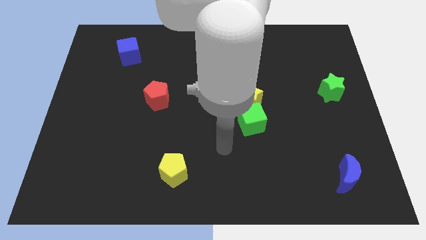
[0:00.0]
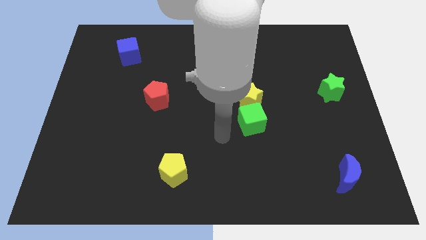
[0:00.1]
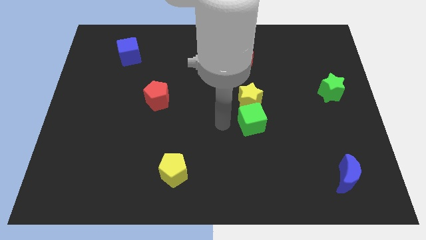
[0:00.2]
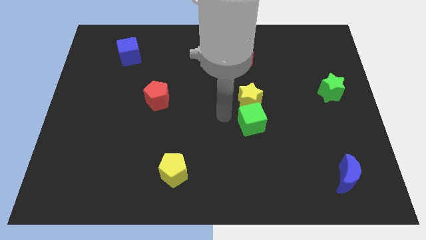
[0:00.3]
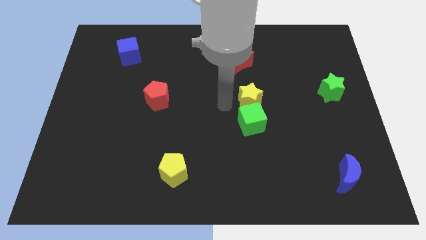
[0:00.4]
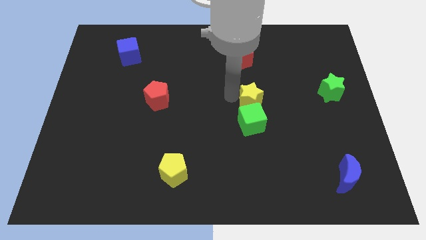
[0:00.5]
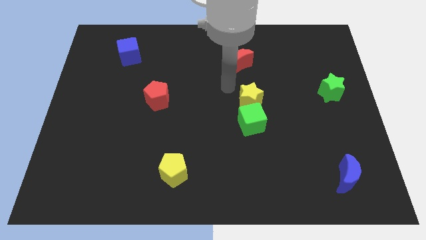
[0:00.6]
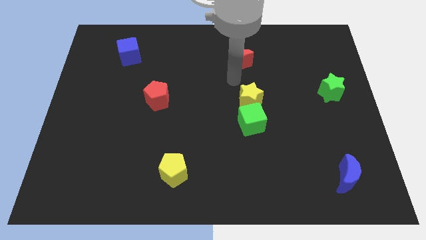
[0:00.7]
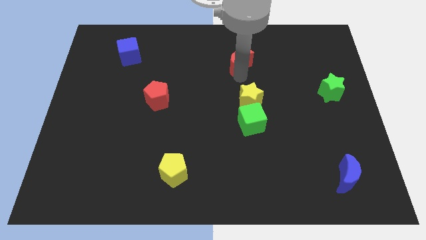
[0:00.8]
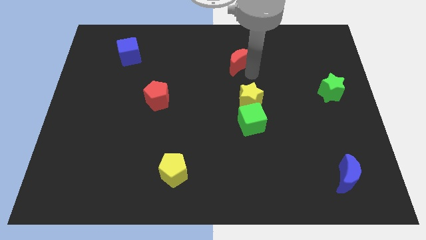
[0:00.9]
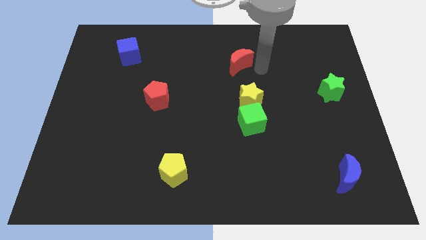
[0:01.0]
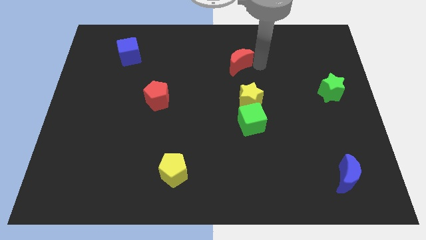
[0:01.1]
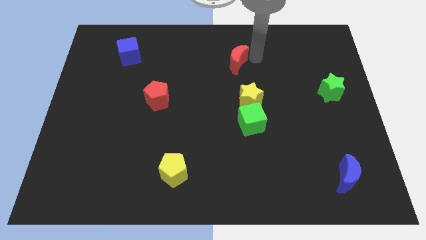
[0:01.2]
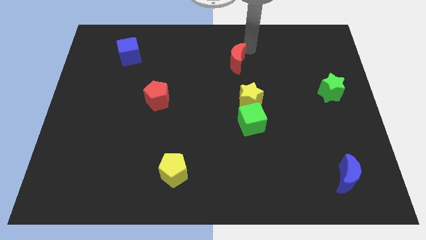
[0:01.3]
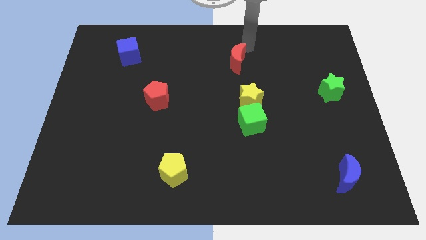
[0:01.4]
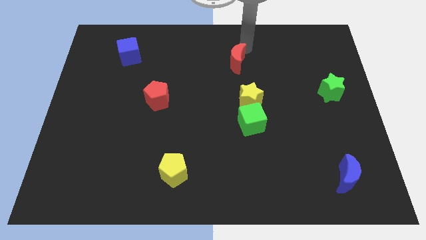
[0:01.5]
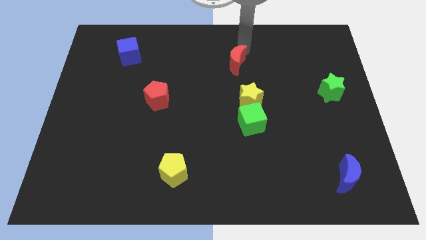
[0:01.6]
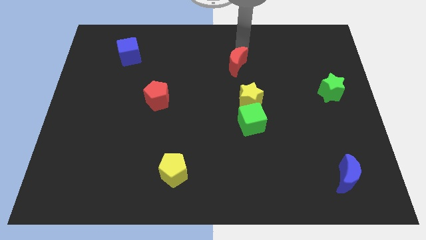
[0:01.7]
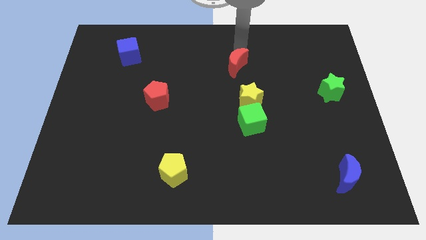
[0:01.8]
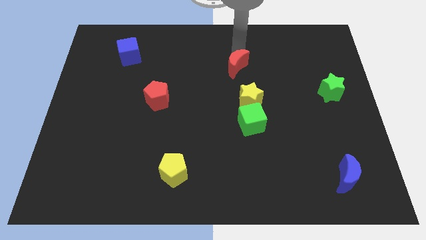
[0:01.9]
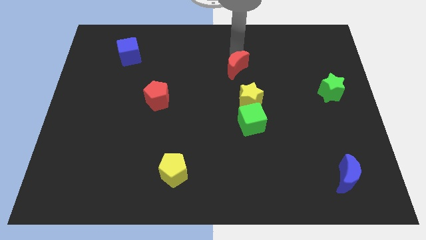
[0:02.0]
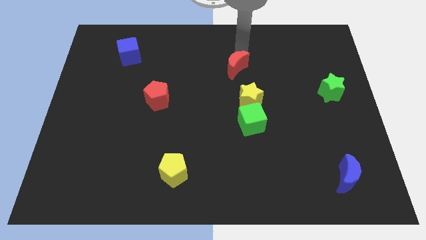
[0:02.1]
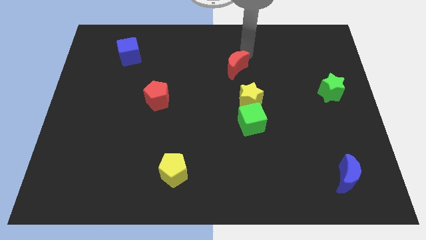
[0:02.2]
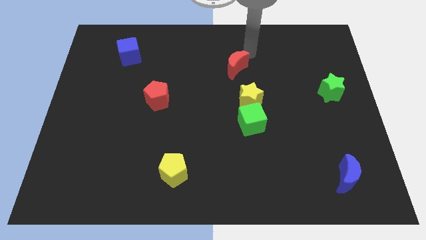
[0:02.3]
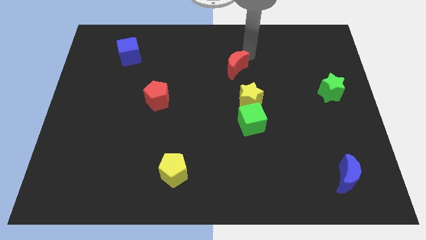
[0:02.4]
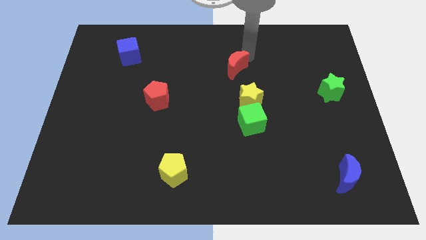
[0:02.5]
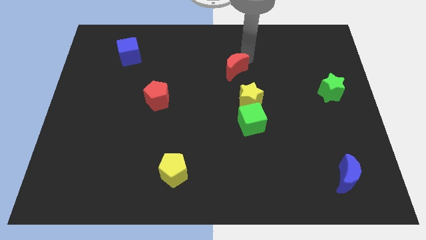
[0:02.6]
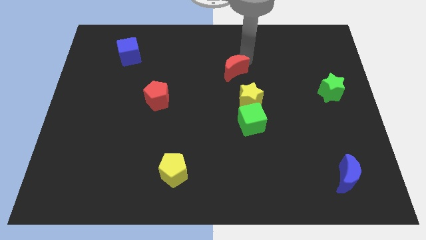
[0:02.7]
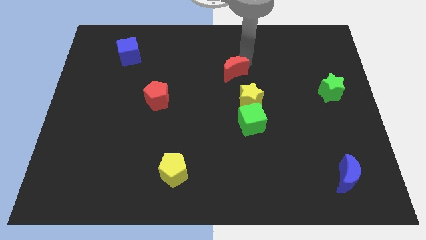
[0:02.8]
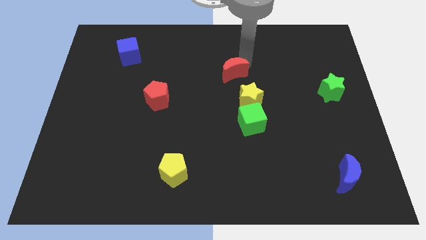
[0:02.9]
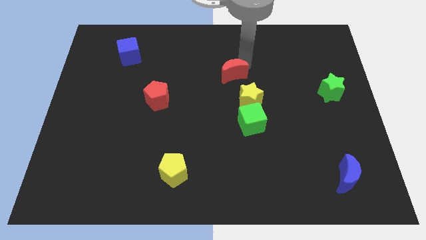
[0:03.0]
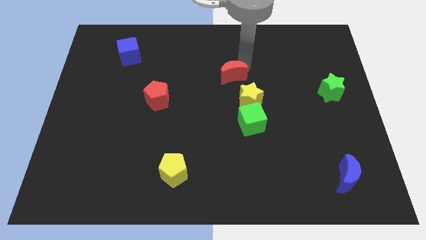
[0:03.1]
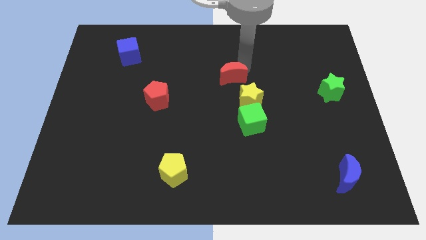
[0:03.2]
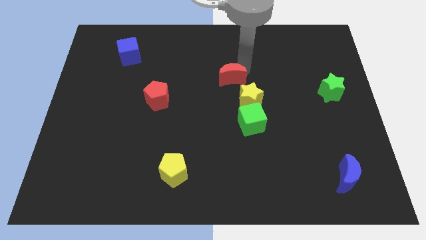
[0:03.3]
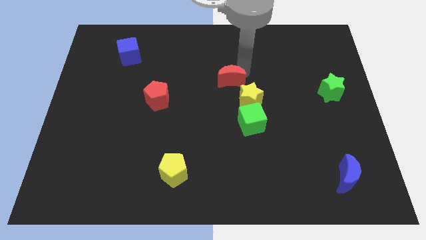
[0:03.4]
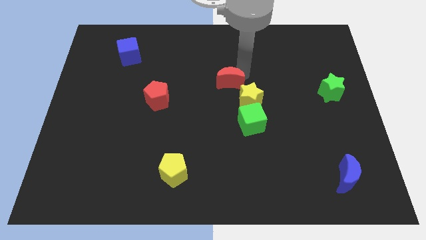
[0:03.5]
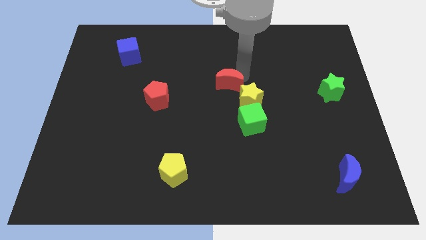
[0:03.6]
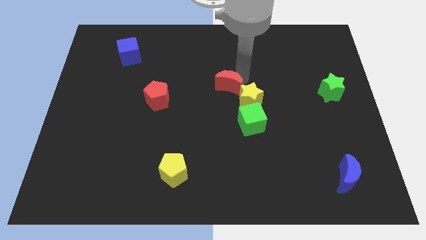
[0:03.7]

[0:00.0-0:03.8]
slightly push the red moon down and left diagonally

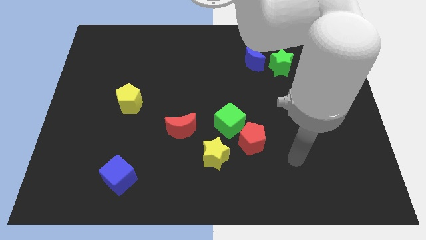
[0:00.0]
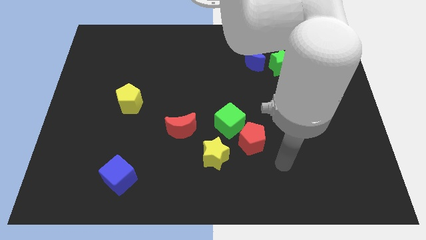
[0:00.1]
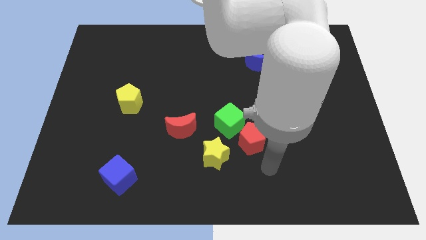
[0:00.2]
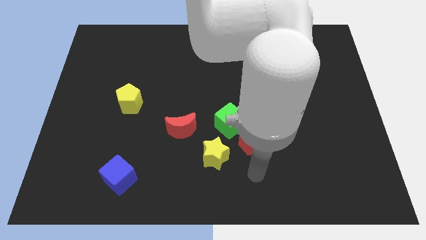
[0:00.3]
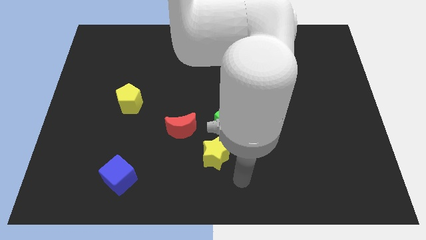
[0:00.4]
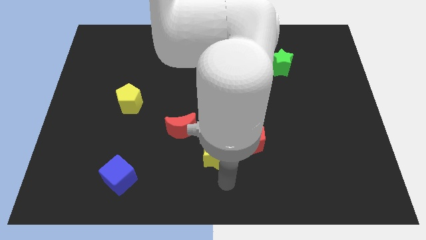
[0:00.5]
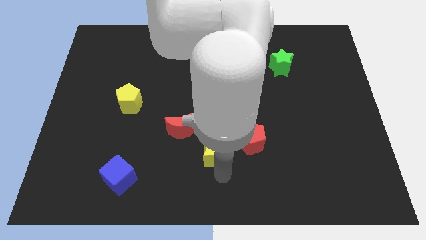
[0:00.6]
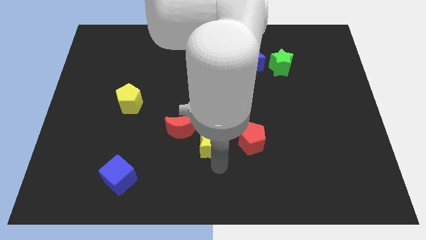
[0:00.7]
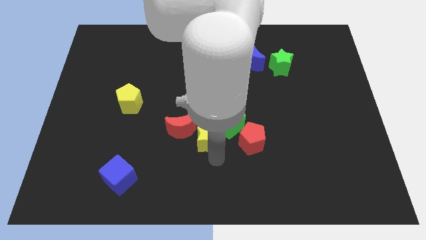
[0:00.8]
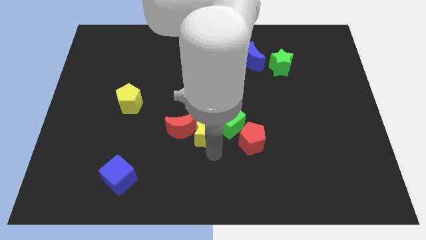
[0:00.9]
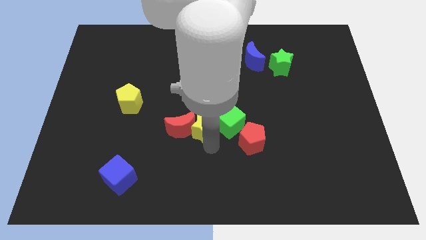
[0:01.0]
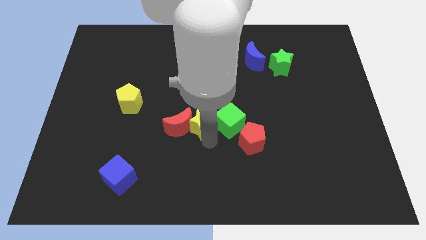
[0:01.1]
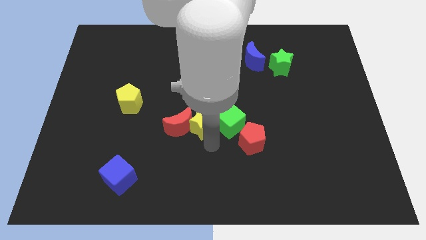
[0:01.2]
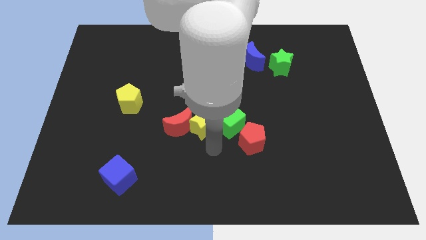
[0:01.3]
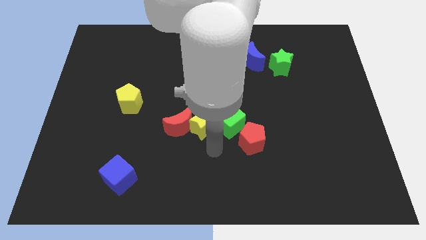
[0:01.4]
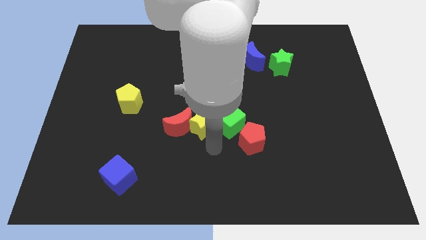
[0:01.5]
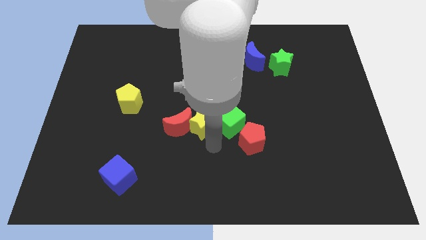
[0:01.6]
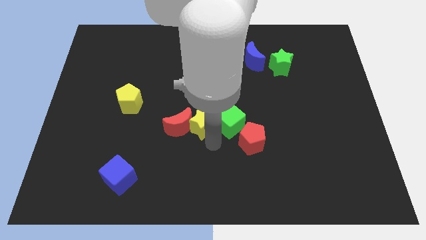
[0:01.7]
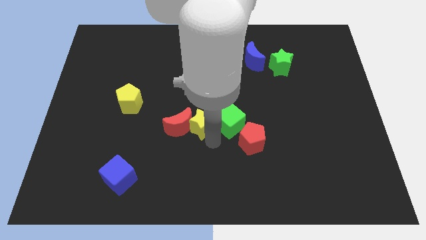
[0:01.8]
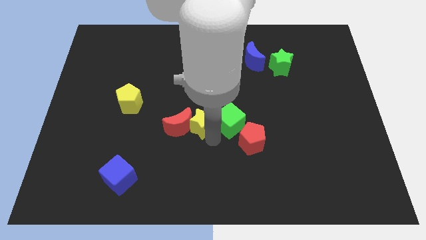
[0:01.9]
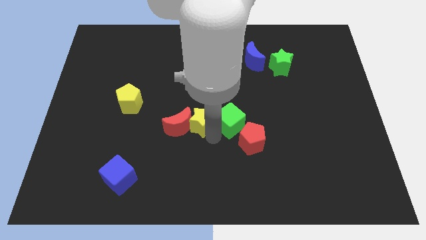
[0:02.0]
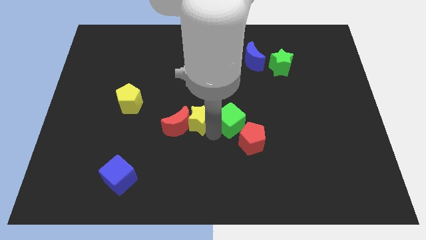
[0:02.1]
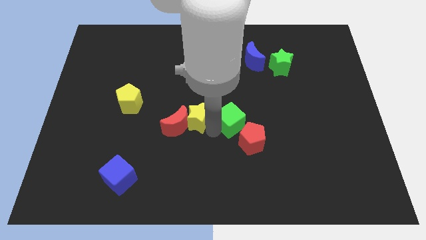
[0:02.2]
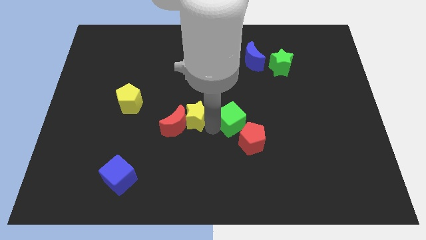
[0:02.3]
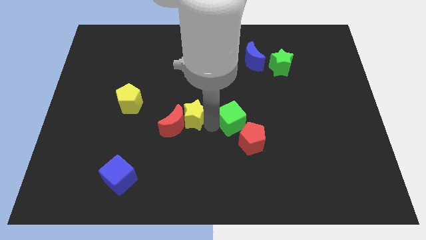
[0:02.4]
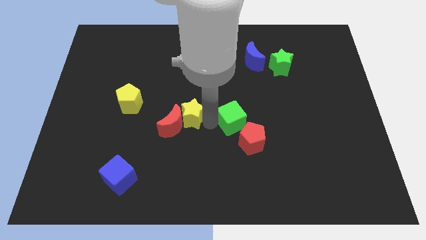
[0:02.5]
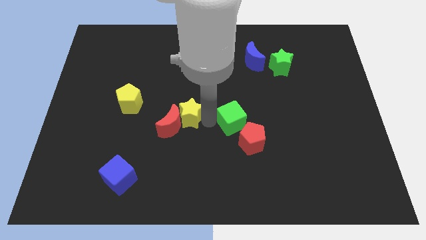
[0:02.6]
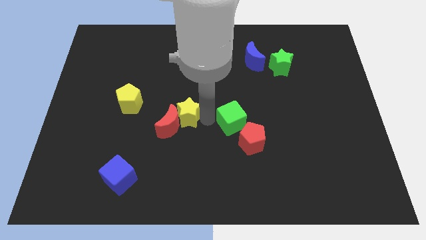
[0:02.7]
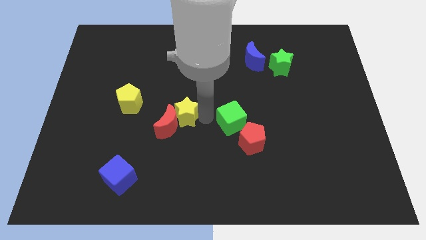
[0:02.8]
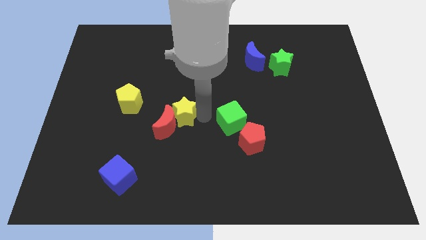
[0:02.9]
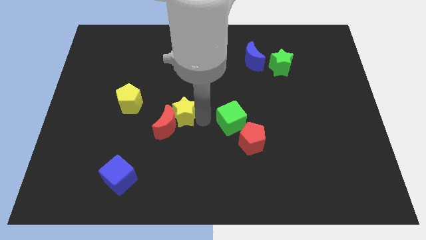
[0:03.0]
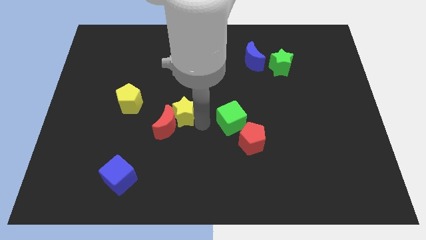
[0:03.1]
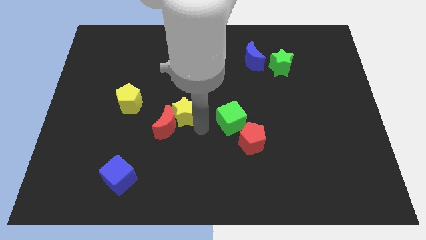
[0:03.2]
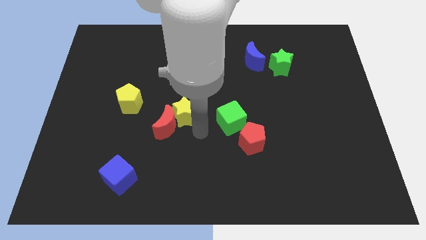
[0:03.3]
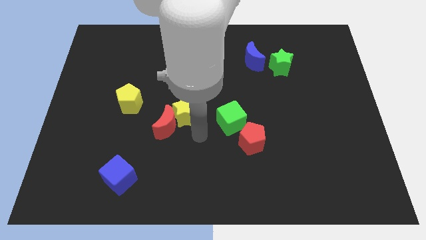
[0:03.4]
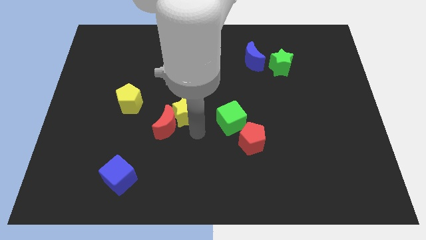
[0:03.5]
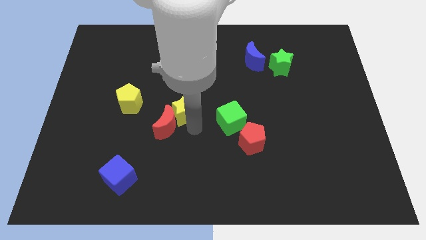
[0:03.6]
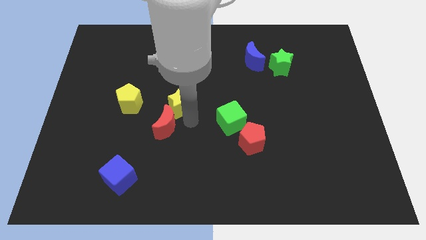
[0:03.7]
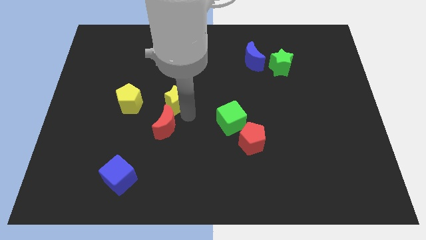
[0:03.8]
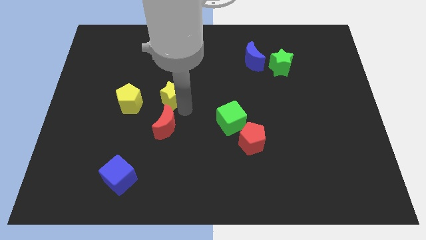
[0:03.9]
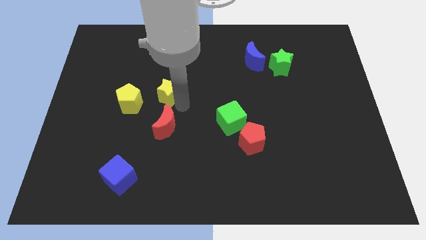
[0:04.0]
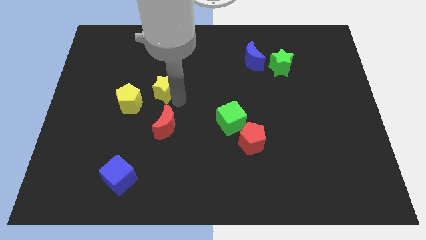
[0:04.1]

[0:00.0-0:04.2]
move the yellow star up and then to the left

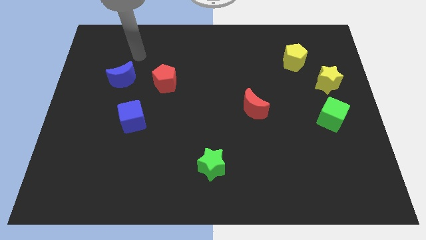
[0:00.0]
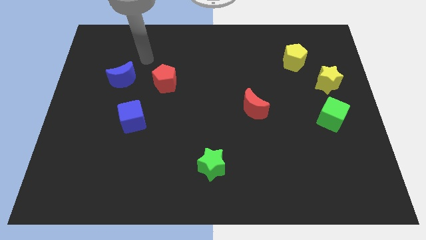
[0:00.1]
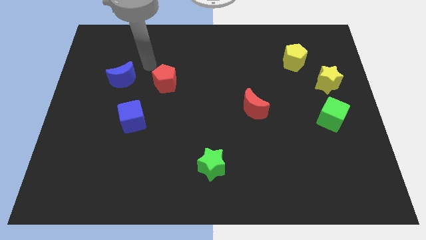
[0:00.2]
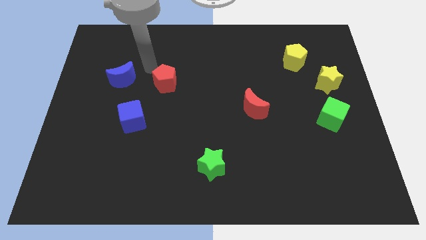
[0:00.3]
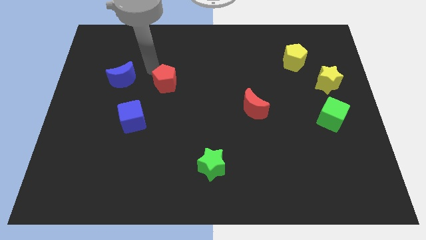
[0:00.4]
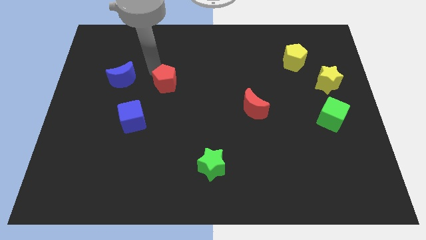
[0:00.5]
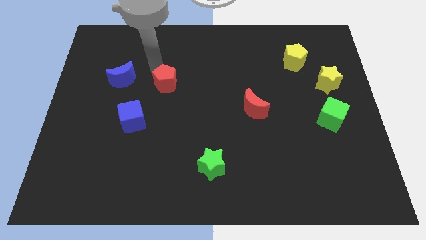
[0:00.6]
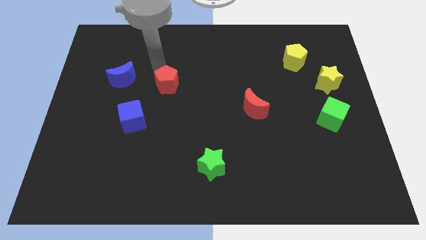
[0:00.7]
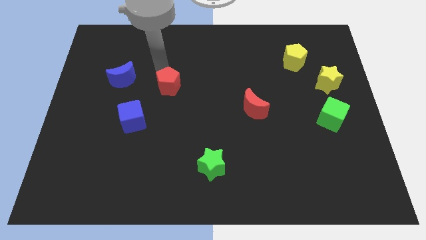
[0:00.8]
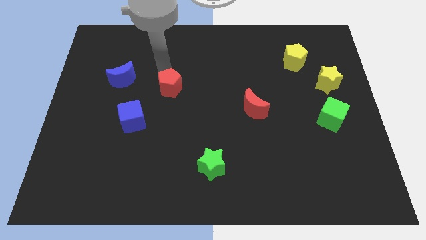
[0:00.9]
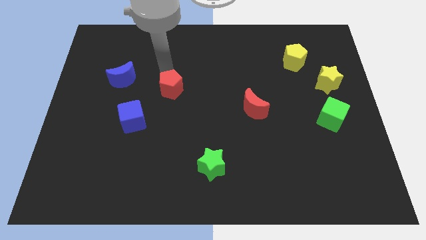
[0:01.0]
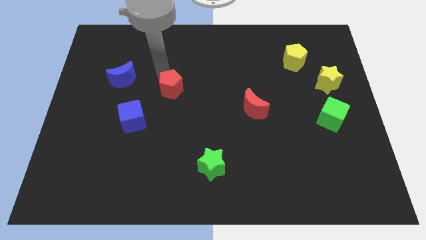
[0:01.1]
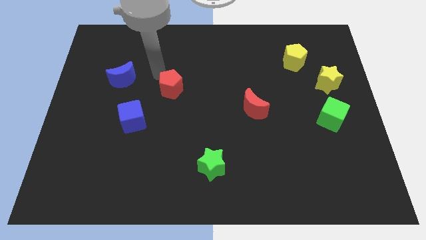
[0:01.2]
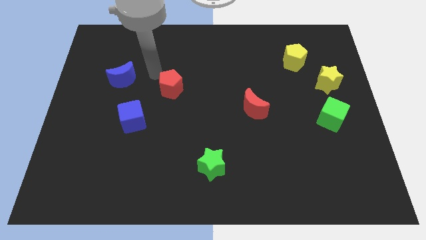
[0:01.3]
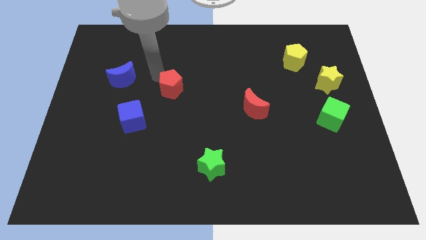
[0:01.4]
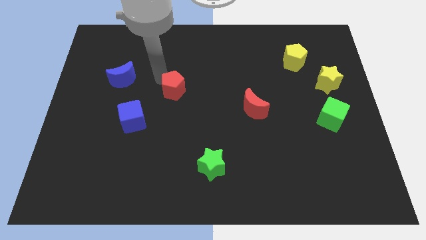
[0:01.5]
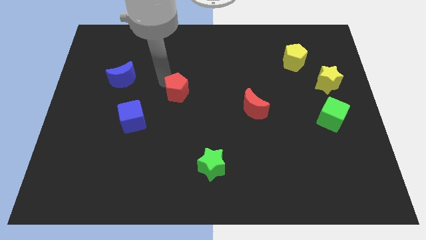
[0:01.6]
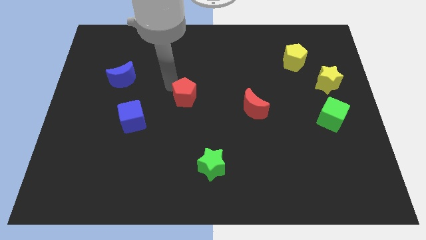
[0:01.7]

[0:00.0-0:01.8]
move the red pentagon somewhat down and right
